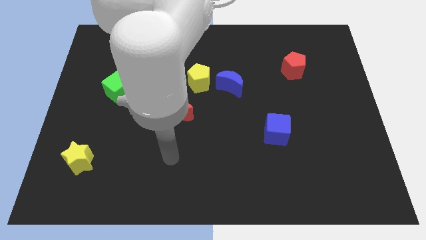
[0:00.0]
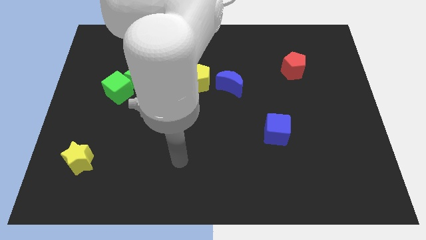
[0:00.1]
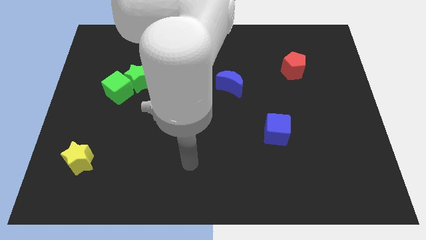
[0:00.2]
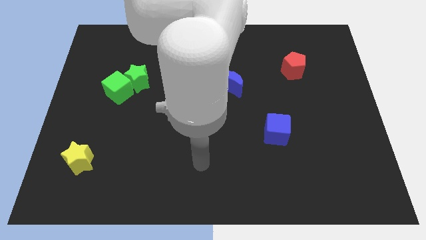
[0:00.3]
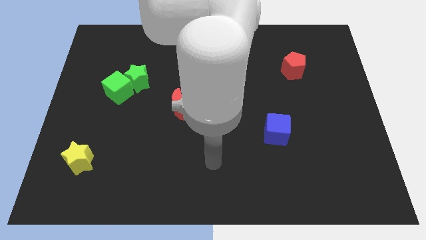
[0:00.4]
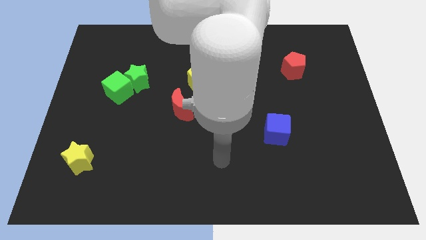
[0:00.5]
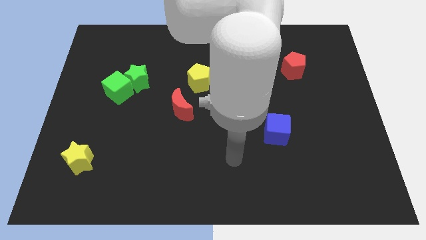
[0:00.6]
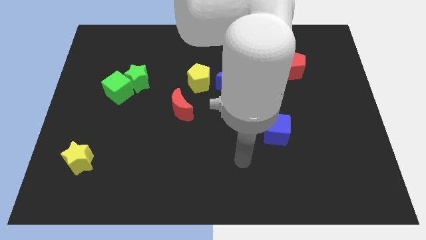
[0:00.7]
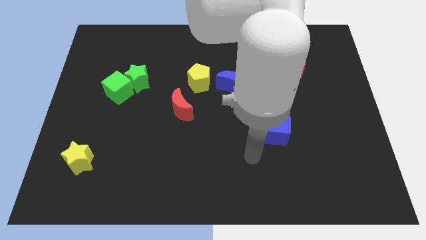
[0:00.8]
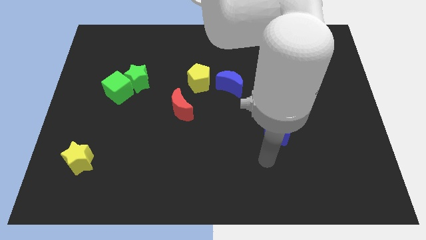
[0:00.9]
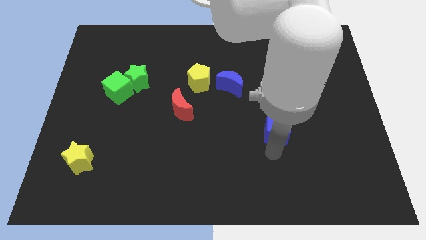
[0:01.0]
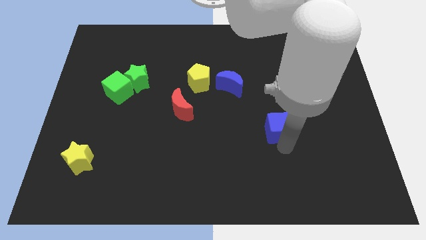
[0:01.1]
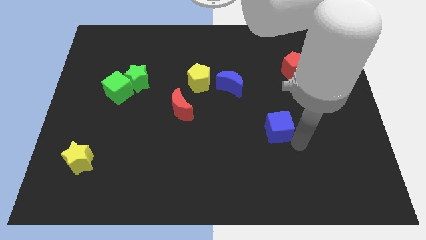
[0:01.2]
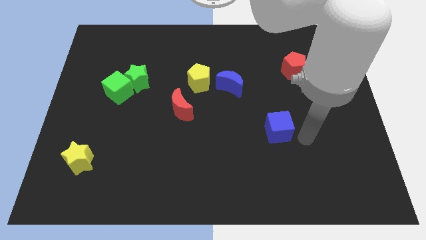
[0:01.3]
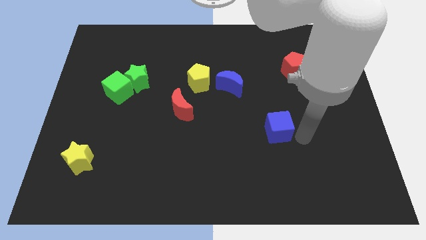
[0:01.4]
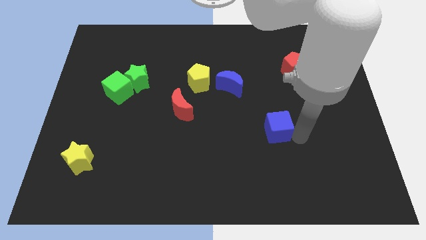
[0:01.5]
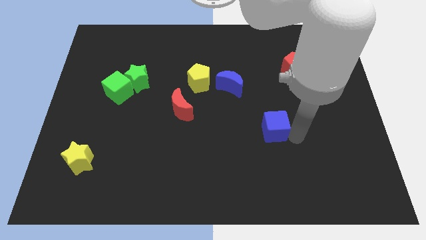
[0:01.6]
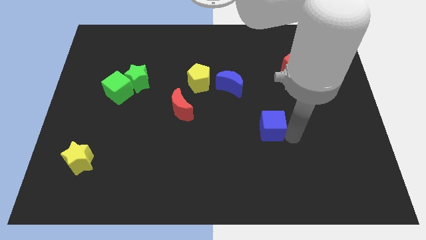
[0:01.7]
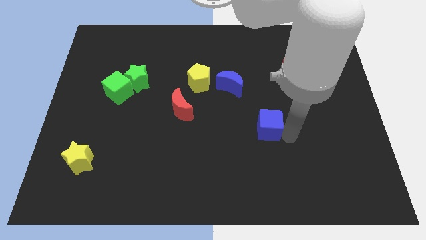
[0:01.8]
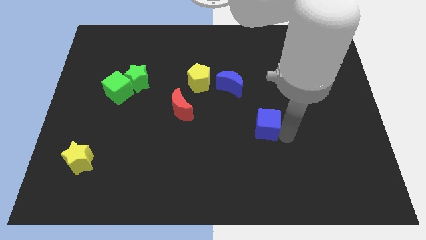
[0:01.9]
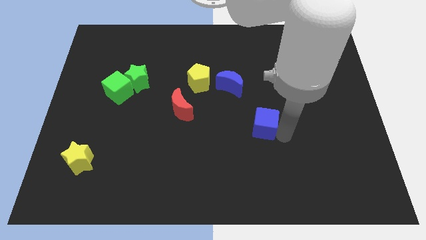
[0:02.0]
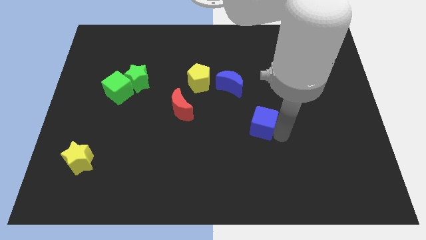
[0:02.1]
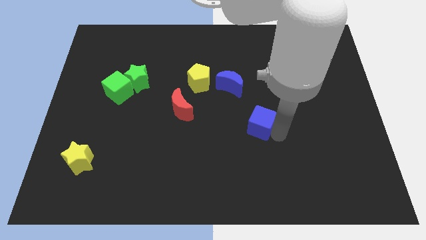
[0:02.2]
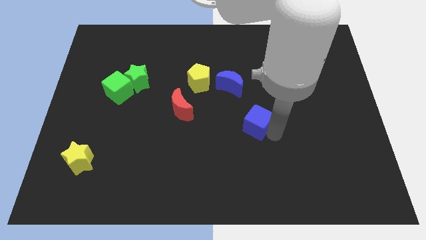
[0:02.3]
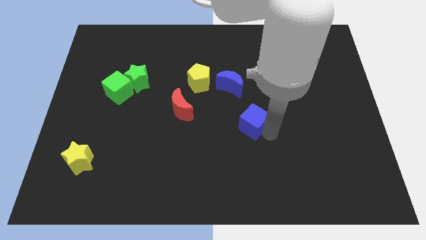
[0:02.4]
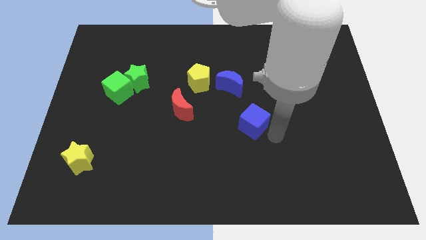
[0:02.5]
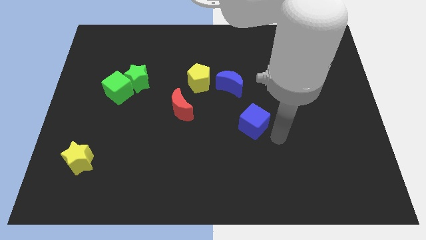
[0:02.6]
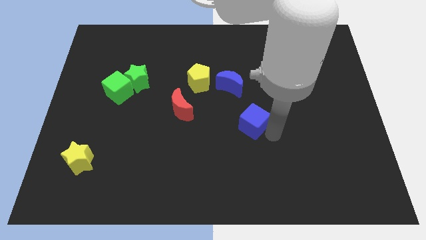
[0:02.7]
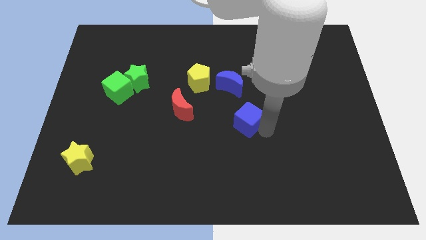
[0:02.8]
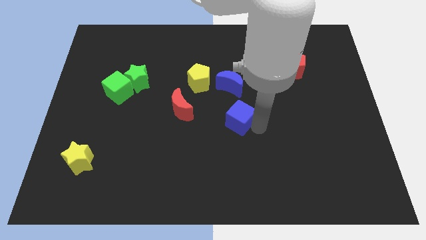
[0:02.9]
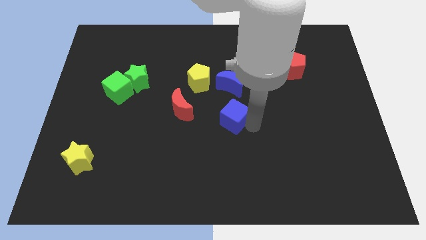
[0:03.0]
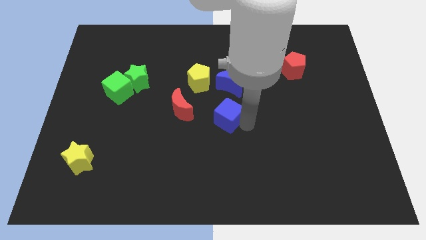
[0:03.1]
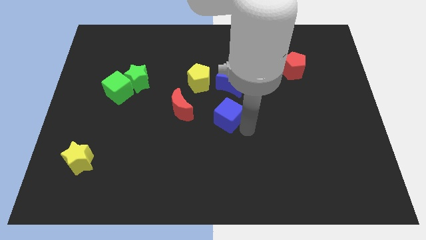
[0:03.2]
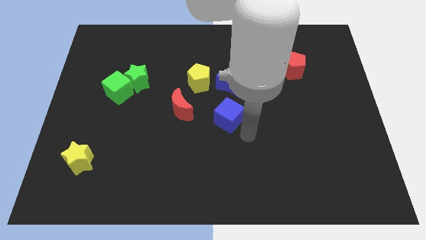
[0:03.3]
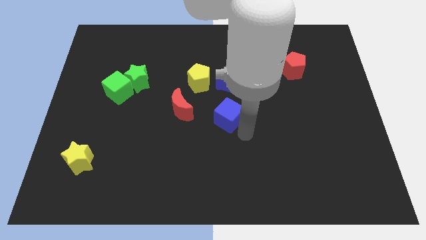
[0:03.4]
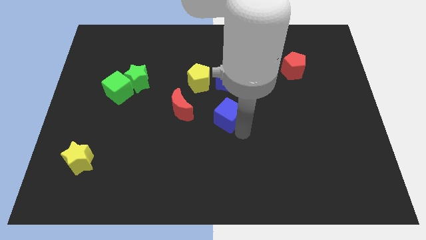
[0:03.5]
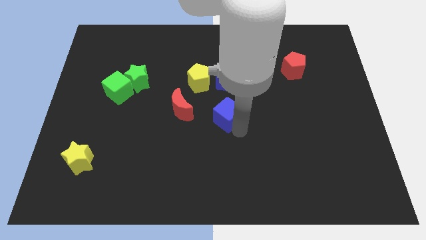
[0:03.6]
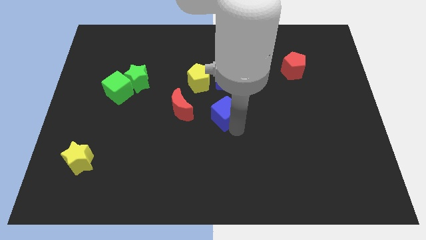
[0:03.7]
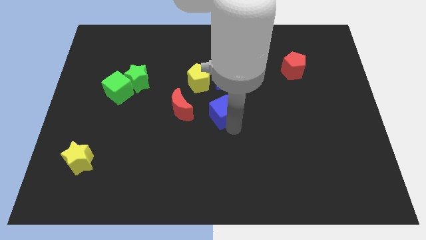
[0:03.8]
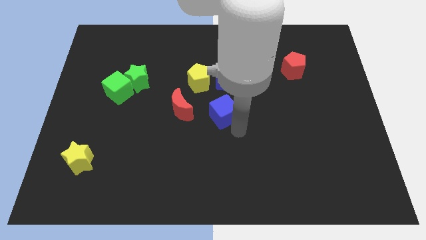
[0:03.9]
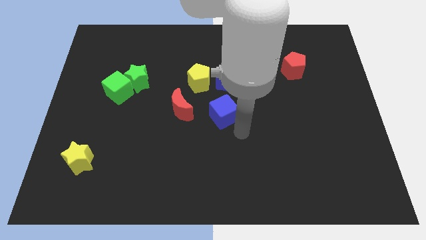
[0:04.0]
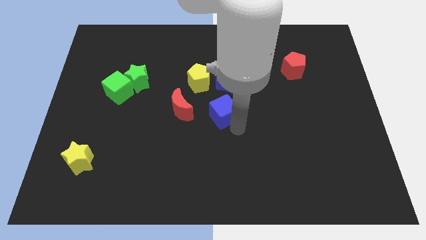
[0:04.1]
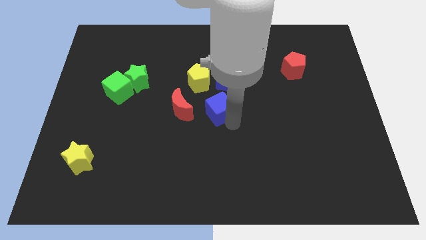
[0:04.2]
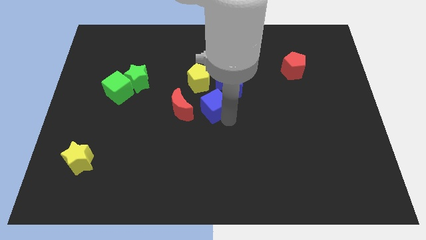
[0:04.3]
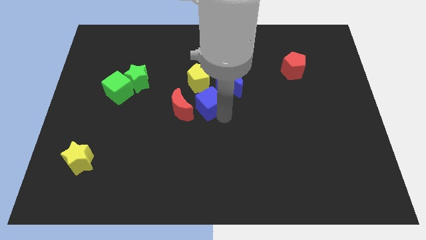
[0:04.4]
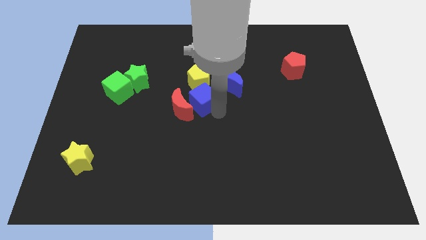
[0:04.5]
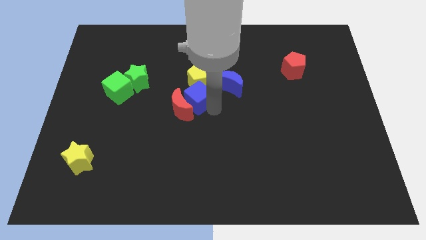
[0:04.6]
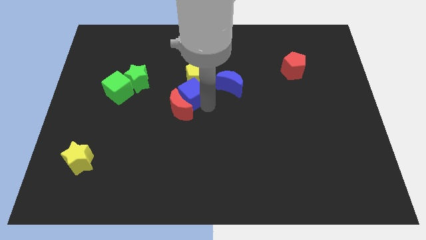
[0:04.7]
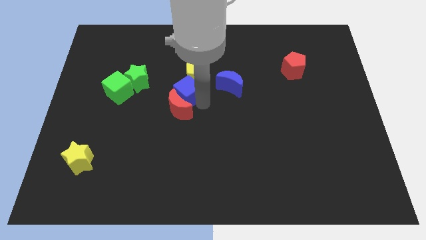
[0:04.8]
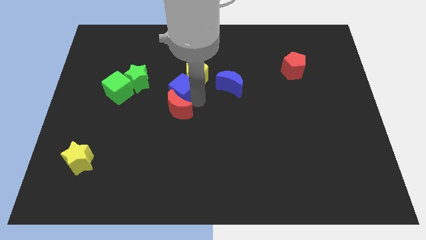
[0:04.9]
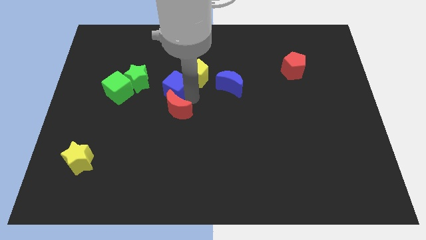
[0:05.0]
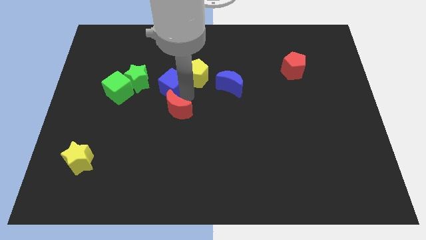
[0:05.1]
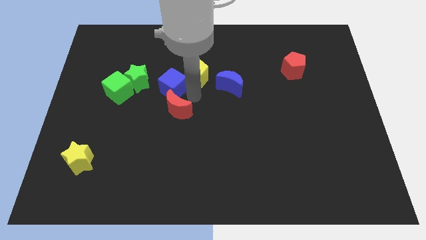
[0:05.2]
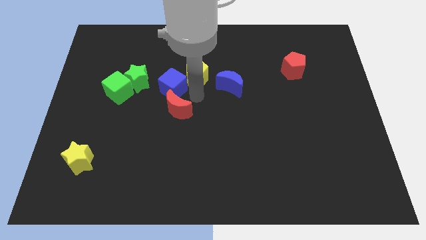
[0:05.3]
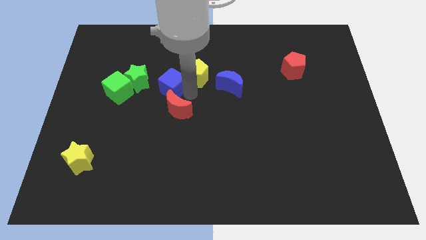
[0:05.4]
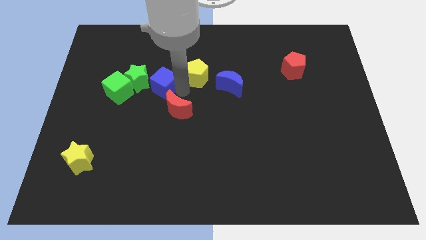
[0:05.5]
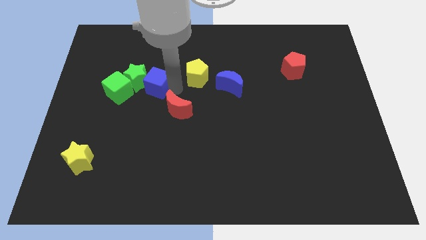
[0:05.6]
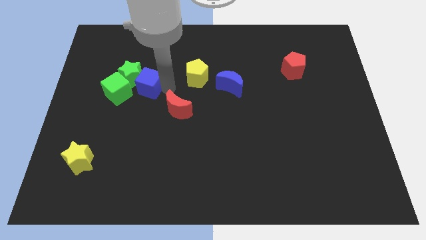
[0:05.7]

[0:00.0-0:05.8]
slide the blue cube to the top right of the green cube

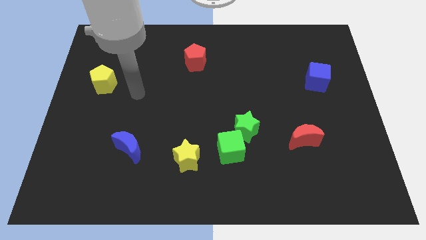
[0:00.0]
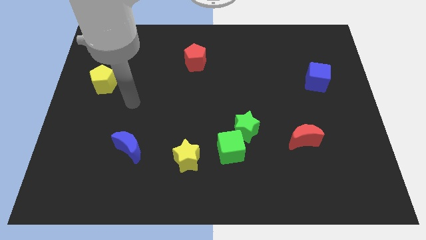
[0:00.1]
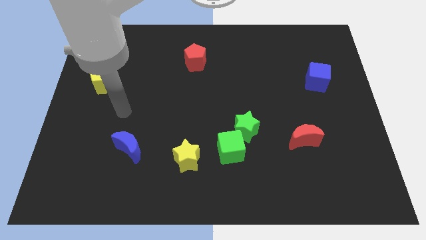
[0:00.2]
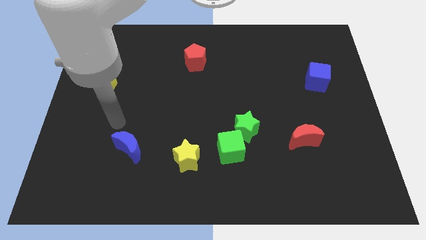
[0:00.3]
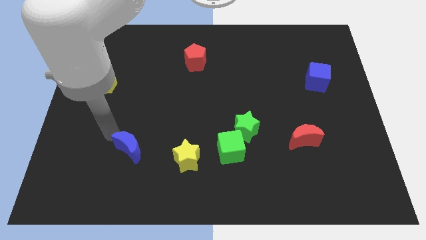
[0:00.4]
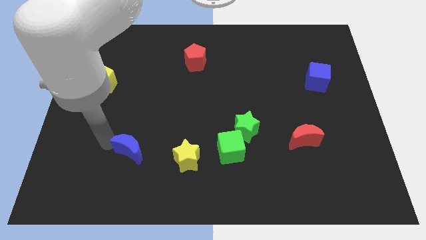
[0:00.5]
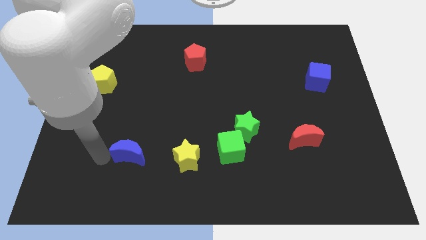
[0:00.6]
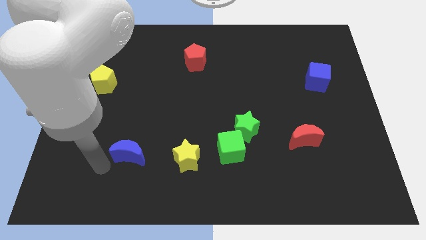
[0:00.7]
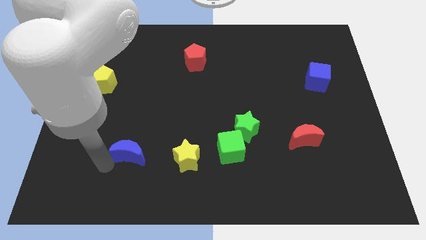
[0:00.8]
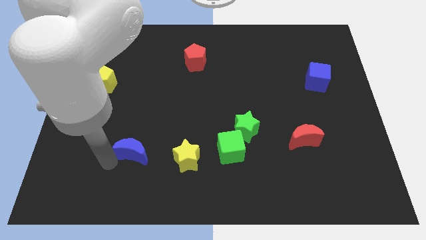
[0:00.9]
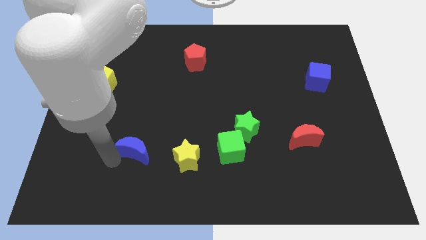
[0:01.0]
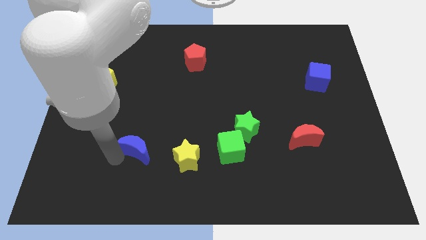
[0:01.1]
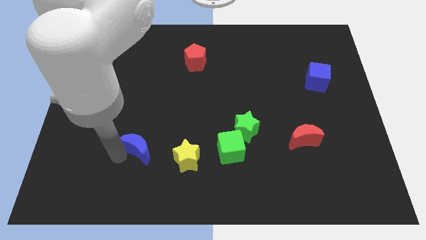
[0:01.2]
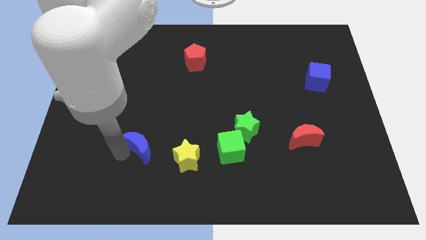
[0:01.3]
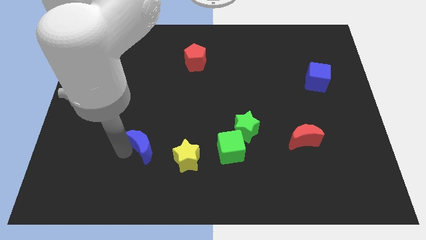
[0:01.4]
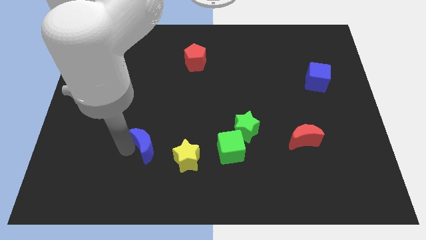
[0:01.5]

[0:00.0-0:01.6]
slide the blue moon to the top left of the yellow star
